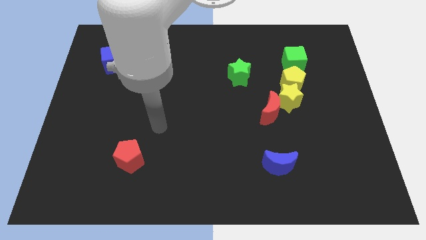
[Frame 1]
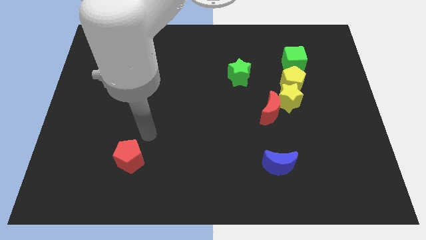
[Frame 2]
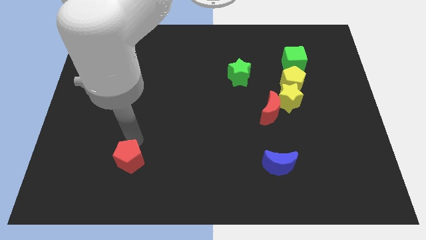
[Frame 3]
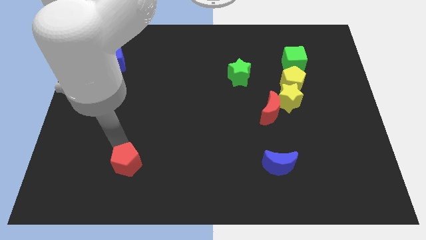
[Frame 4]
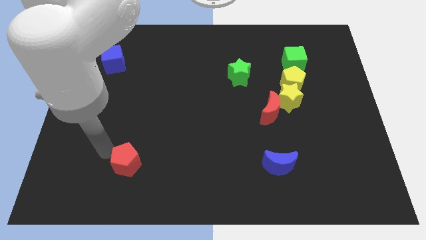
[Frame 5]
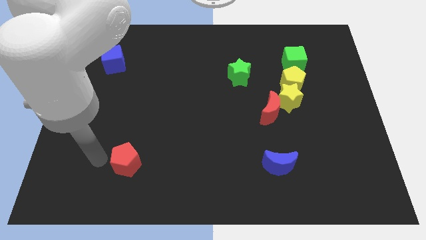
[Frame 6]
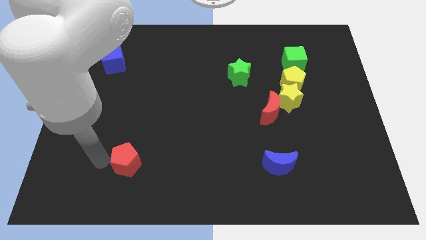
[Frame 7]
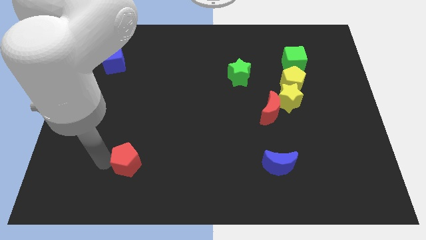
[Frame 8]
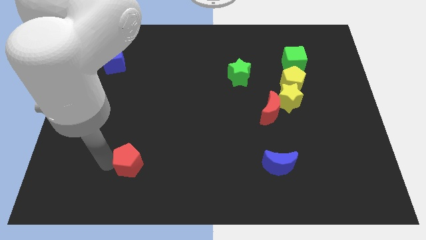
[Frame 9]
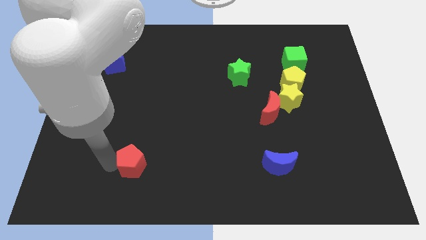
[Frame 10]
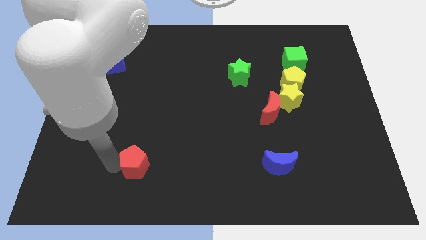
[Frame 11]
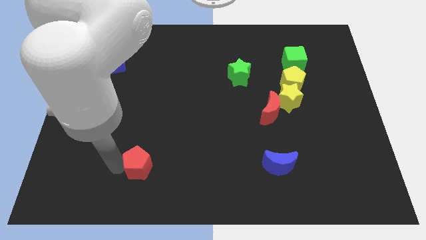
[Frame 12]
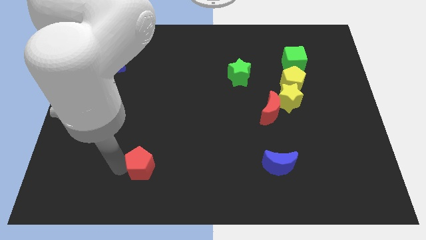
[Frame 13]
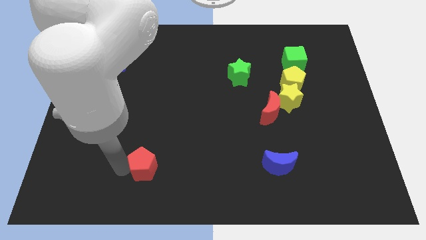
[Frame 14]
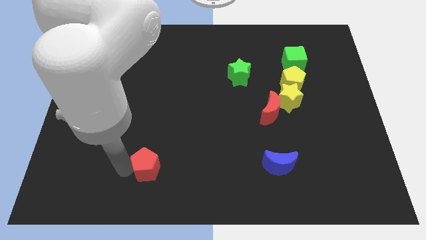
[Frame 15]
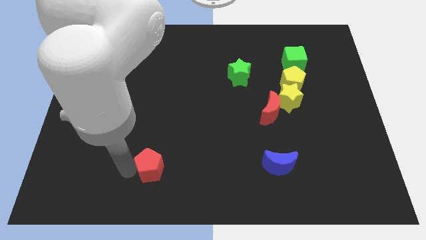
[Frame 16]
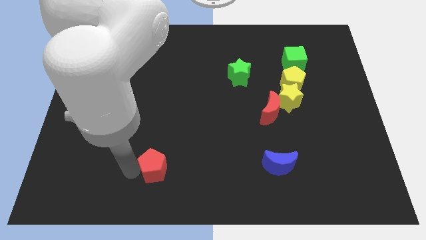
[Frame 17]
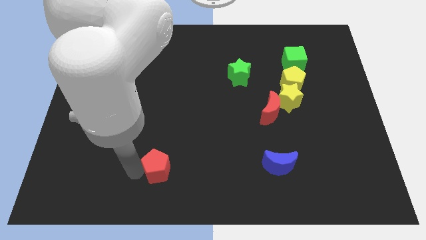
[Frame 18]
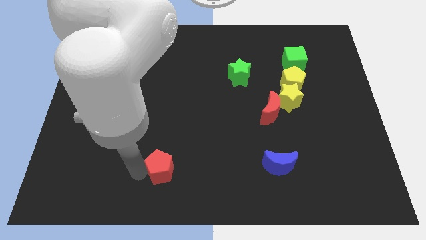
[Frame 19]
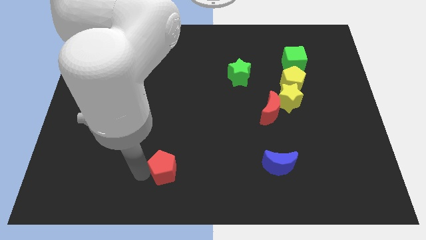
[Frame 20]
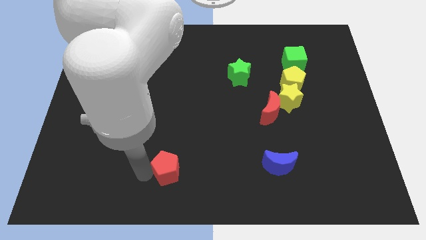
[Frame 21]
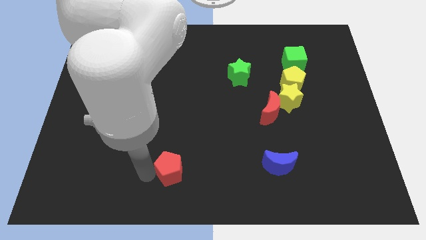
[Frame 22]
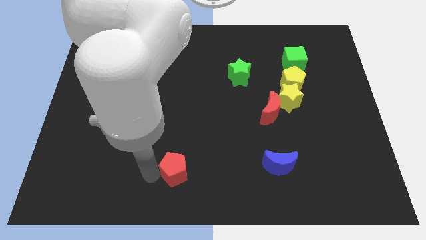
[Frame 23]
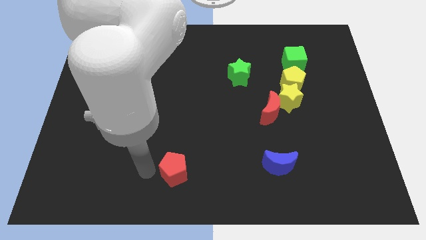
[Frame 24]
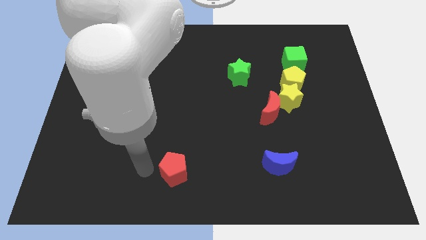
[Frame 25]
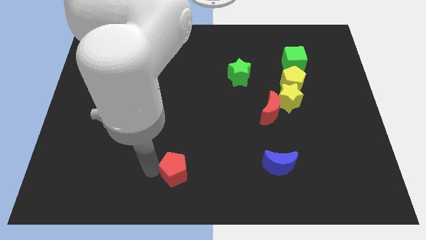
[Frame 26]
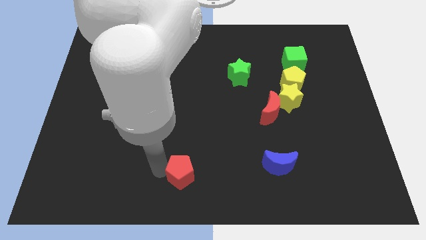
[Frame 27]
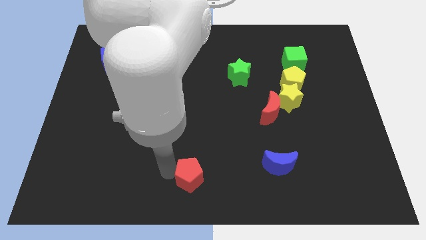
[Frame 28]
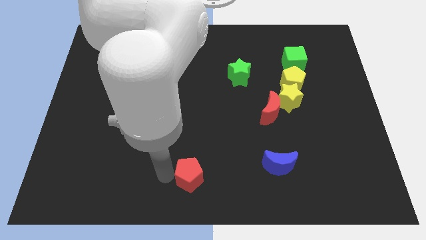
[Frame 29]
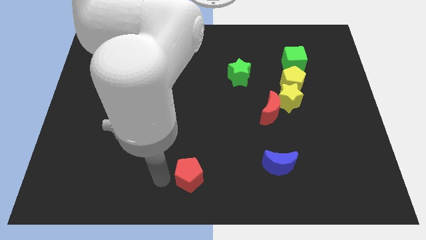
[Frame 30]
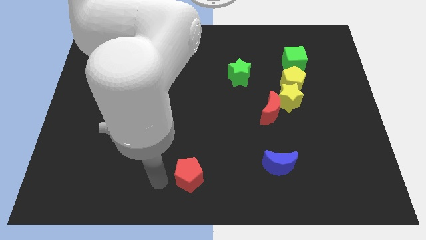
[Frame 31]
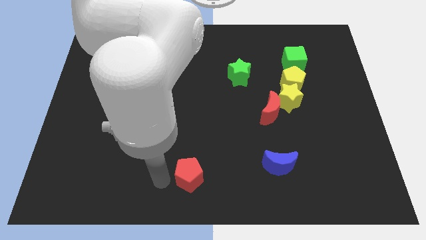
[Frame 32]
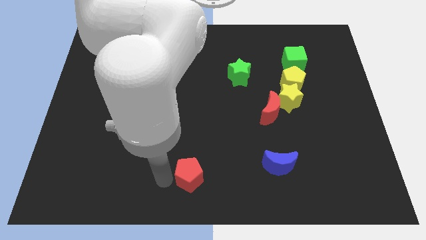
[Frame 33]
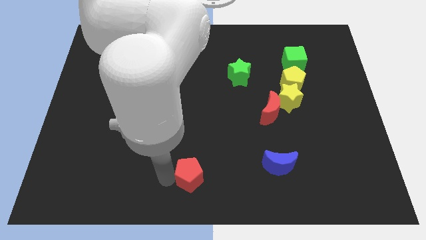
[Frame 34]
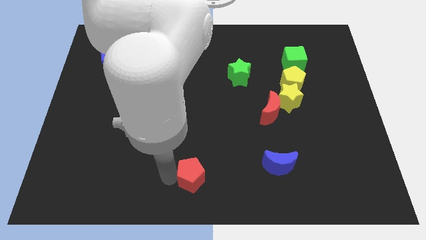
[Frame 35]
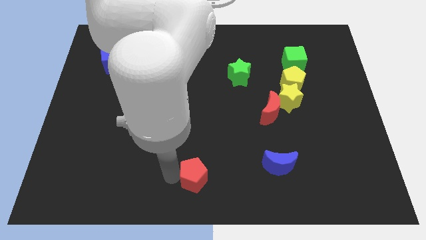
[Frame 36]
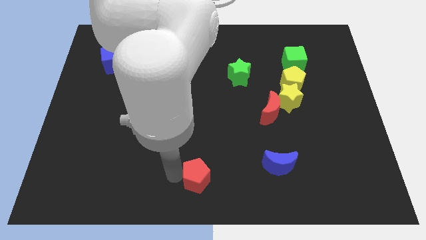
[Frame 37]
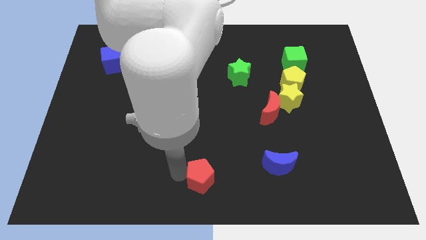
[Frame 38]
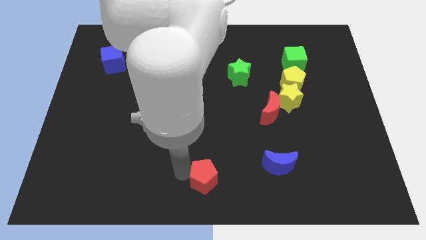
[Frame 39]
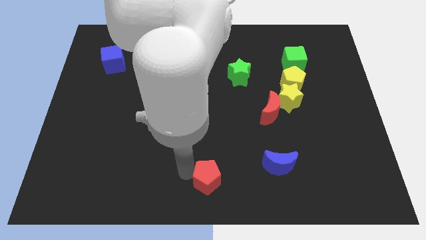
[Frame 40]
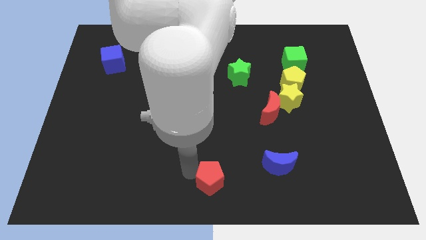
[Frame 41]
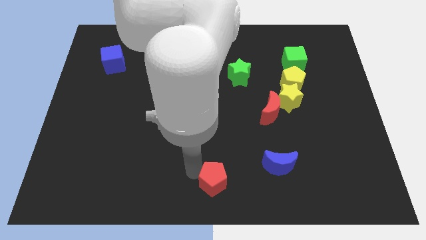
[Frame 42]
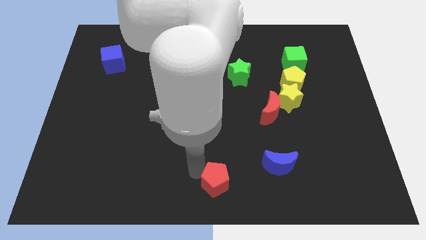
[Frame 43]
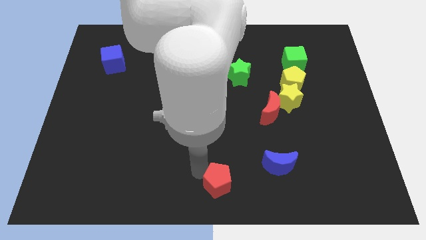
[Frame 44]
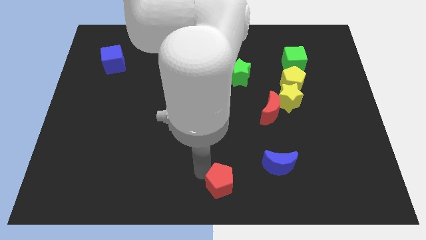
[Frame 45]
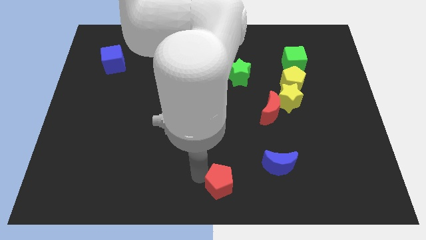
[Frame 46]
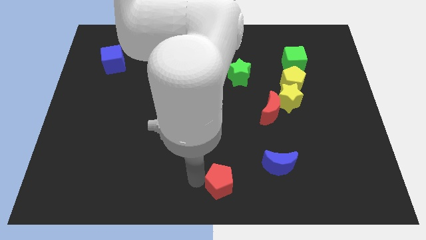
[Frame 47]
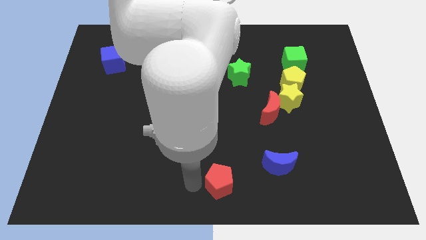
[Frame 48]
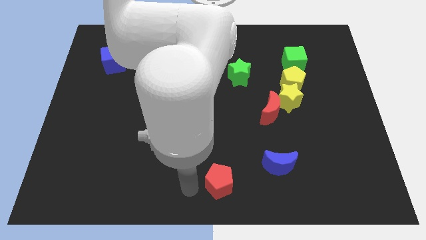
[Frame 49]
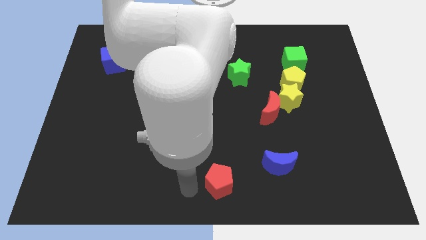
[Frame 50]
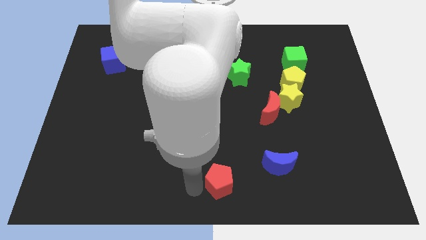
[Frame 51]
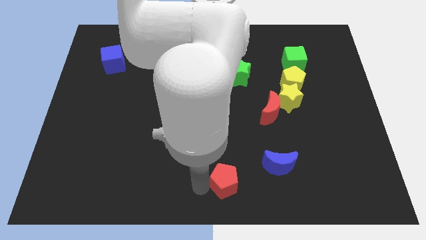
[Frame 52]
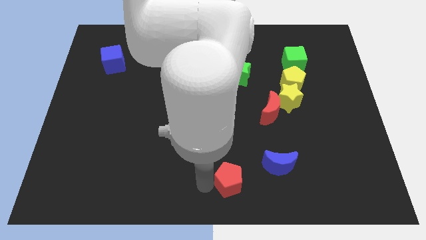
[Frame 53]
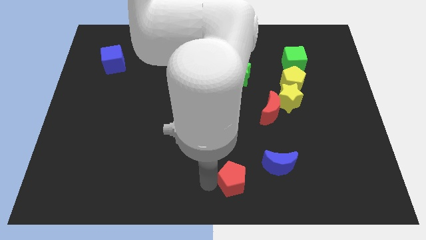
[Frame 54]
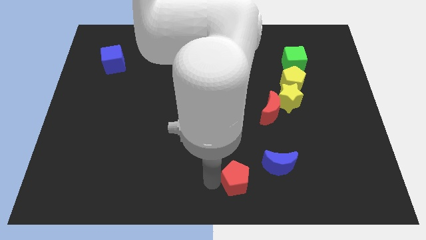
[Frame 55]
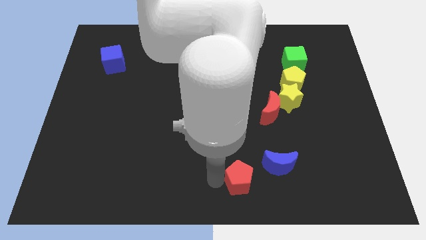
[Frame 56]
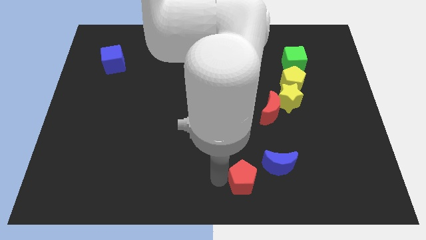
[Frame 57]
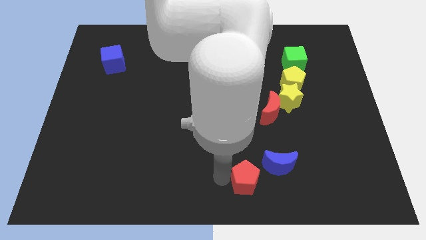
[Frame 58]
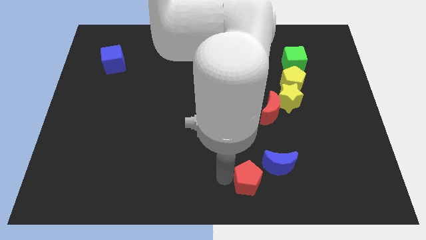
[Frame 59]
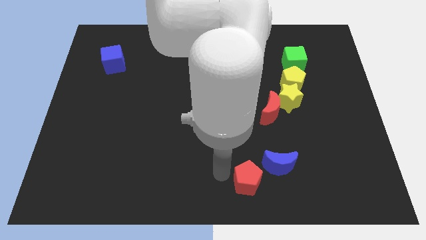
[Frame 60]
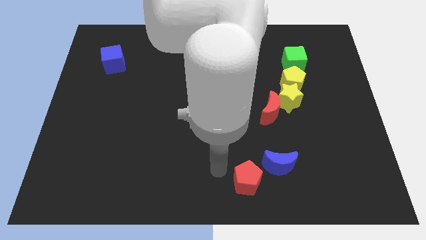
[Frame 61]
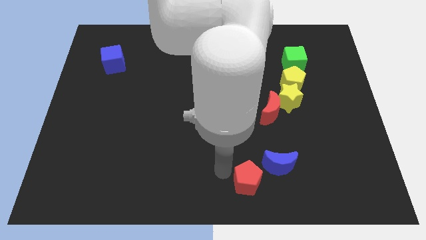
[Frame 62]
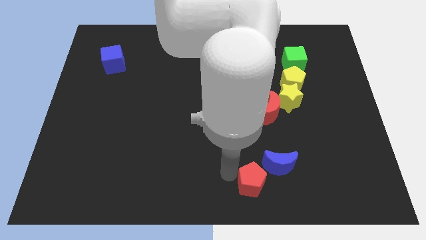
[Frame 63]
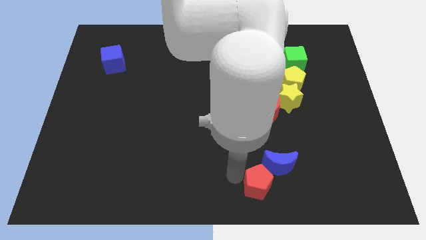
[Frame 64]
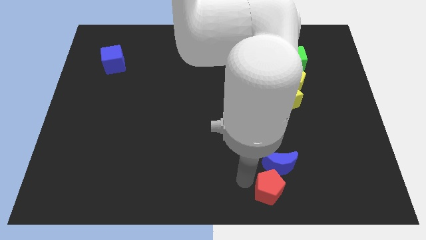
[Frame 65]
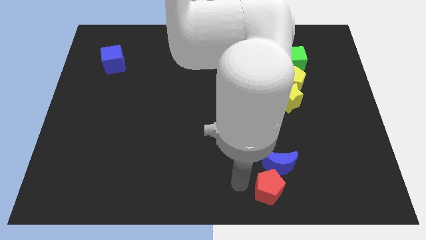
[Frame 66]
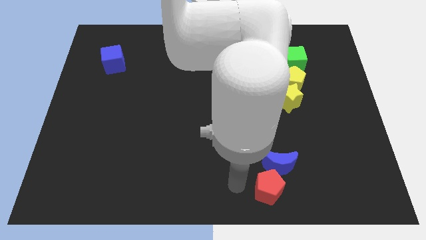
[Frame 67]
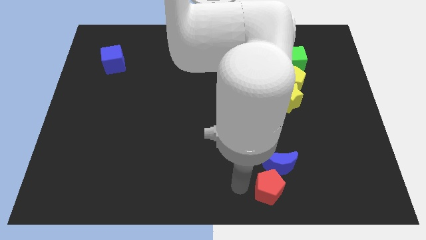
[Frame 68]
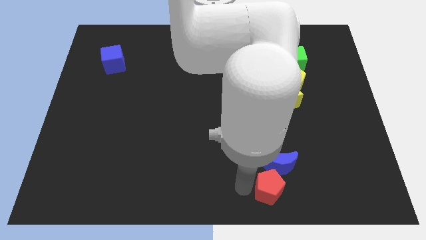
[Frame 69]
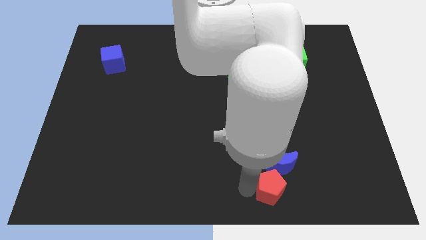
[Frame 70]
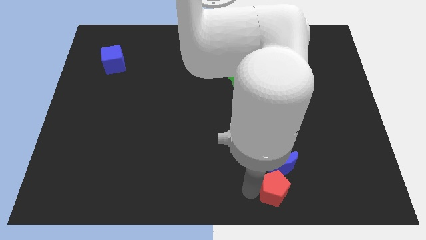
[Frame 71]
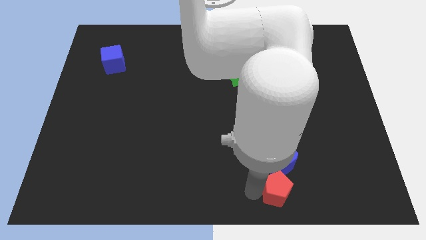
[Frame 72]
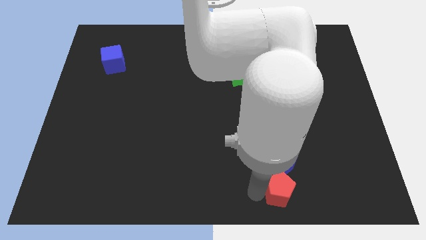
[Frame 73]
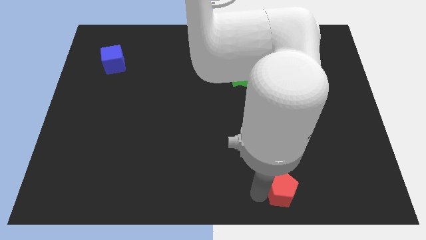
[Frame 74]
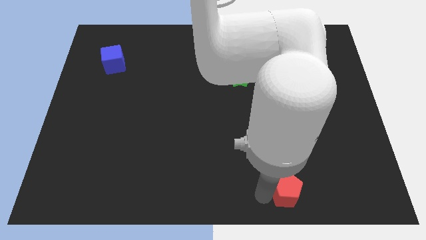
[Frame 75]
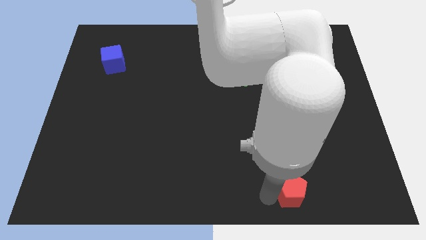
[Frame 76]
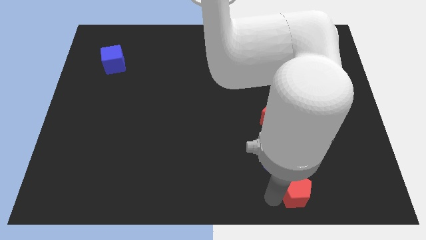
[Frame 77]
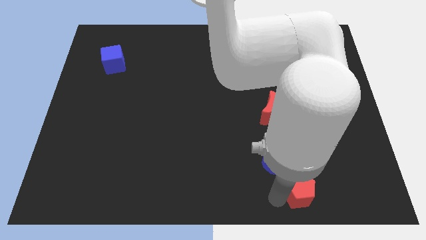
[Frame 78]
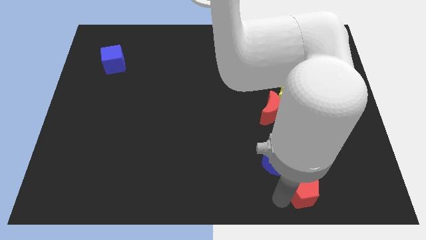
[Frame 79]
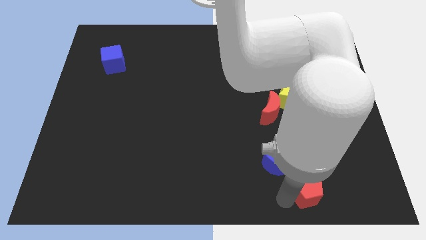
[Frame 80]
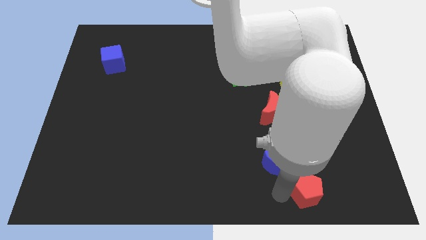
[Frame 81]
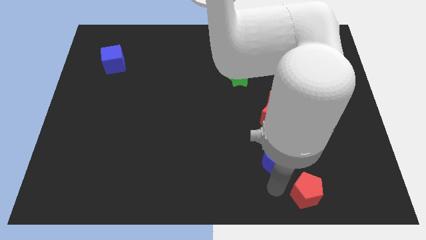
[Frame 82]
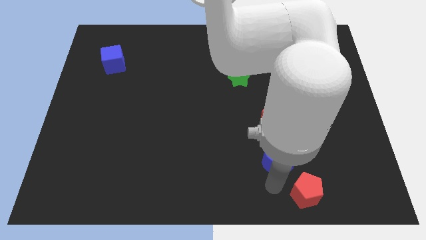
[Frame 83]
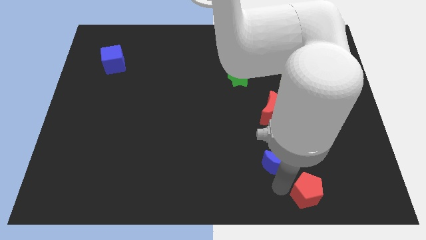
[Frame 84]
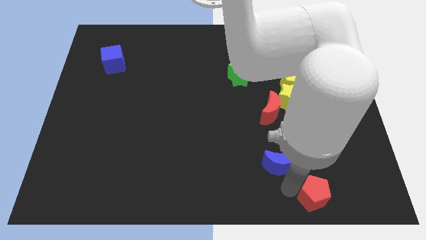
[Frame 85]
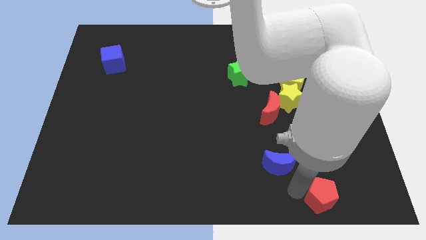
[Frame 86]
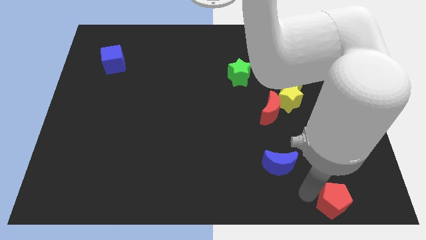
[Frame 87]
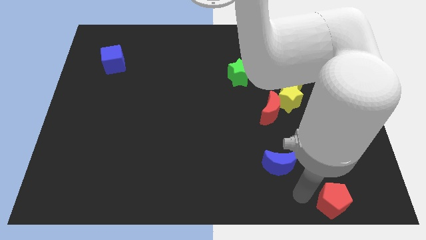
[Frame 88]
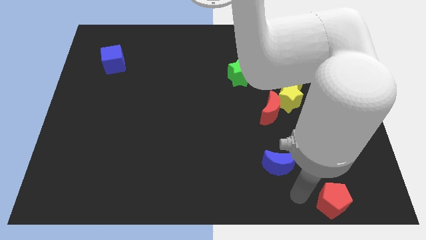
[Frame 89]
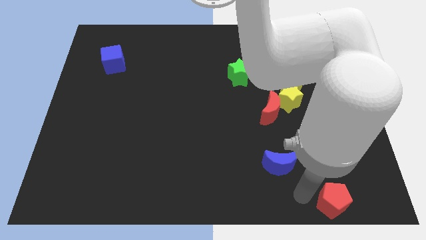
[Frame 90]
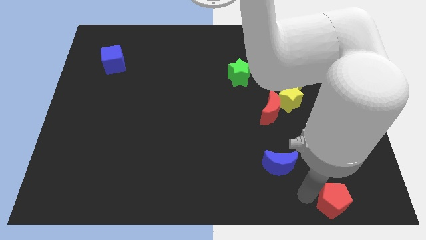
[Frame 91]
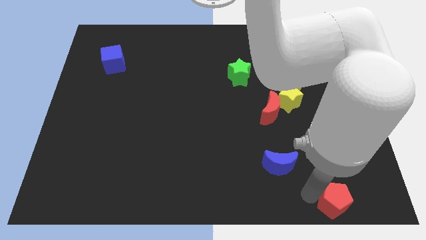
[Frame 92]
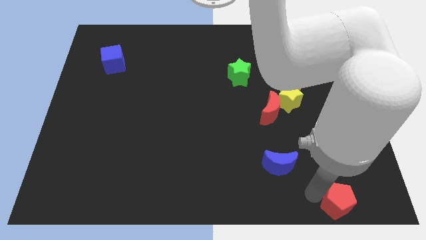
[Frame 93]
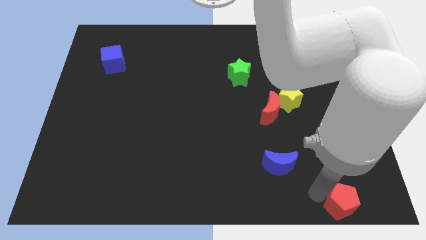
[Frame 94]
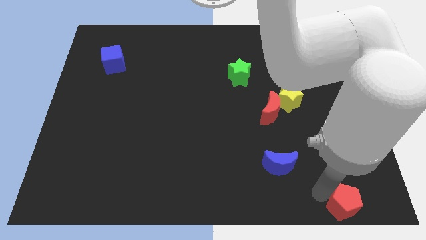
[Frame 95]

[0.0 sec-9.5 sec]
slide the red pentagon to the bottom right of the board
